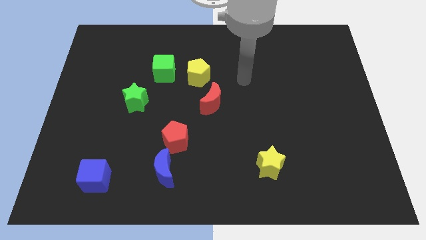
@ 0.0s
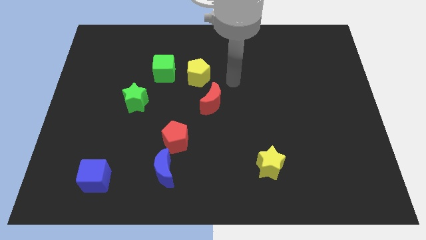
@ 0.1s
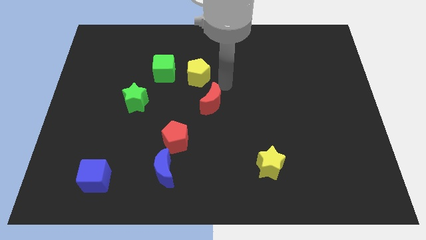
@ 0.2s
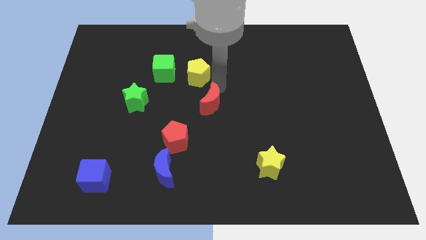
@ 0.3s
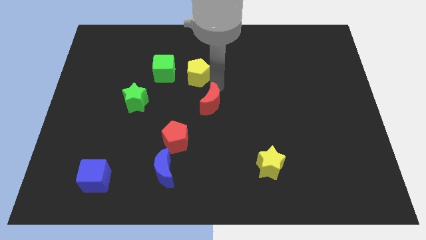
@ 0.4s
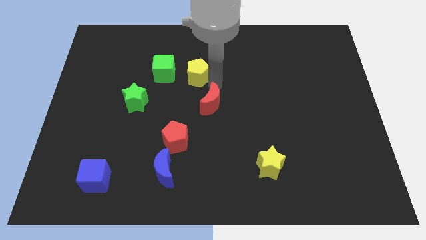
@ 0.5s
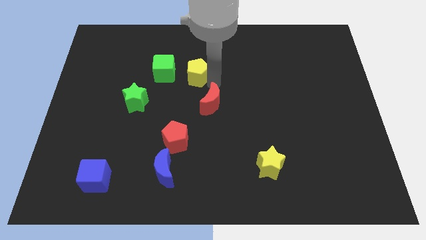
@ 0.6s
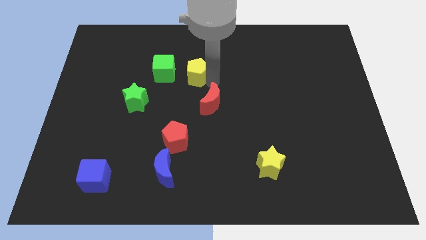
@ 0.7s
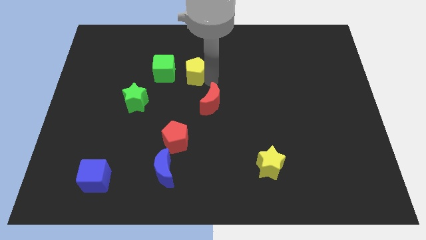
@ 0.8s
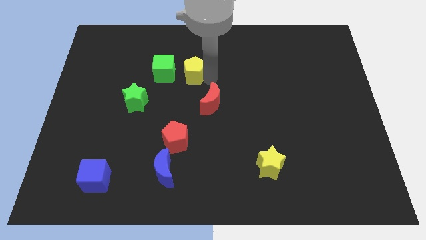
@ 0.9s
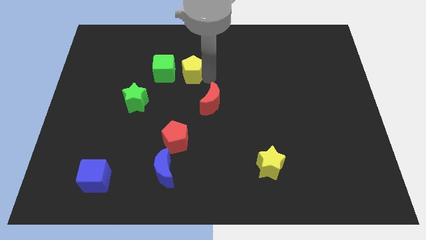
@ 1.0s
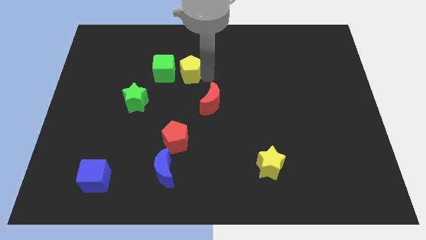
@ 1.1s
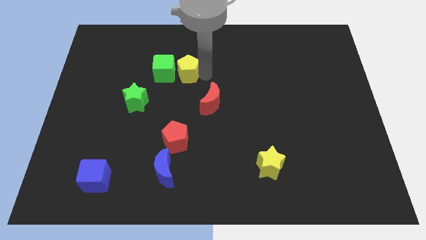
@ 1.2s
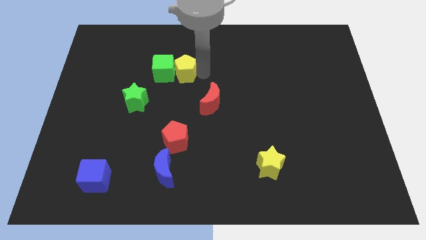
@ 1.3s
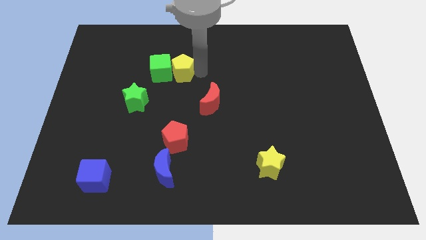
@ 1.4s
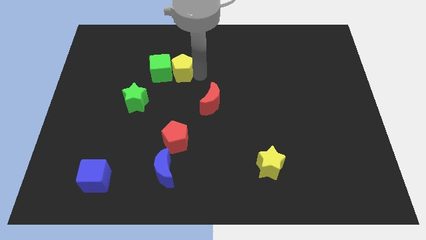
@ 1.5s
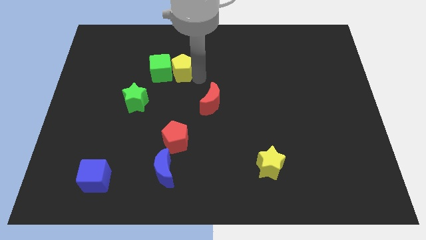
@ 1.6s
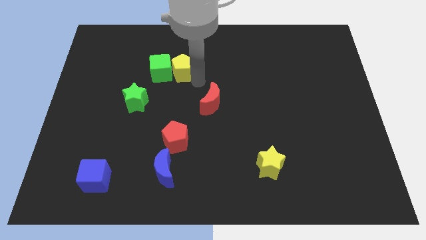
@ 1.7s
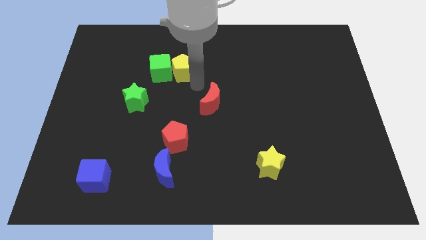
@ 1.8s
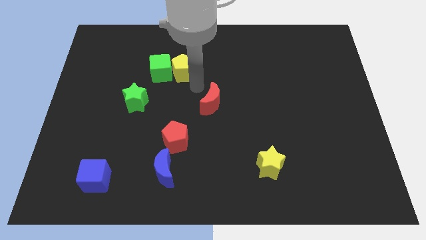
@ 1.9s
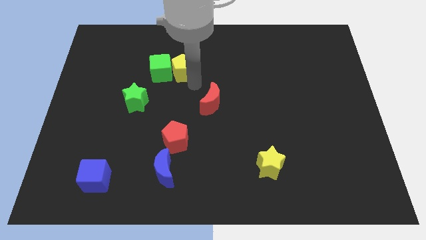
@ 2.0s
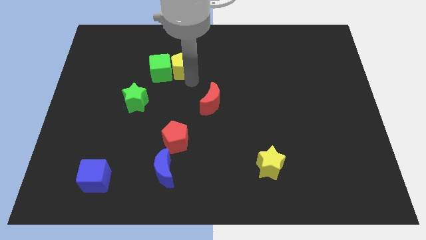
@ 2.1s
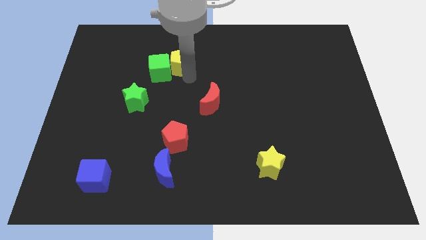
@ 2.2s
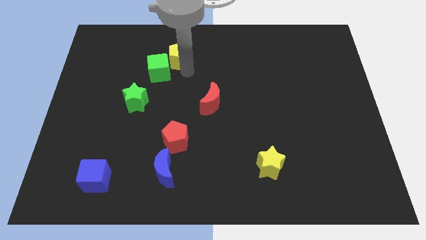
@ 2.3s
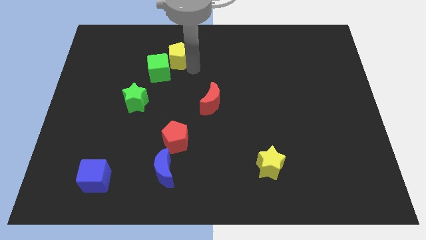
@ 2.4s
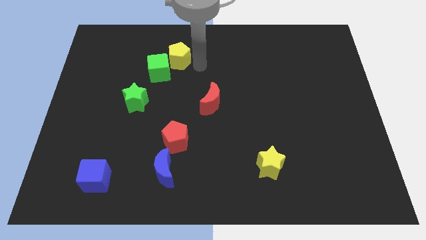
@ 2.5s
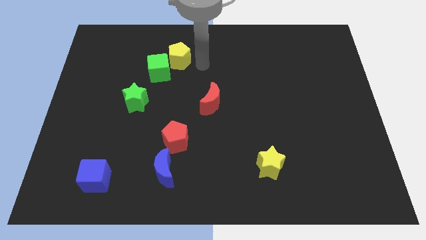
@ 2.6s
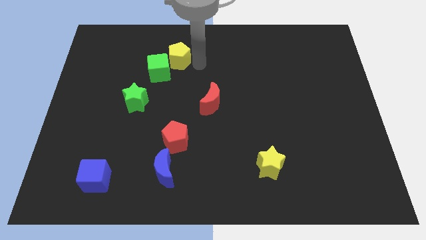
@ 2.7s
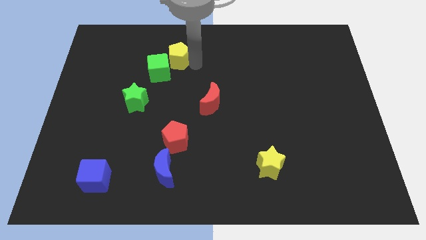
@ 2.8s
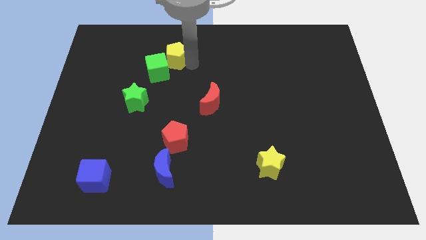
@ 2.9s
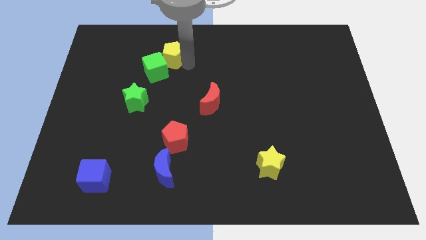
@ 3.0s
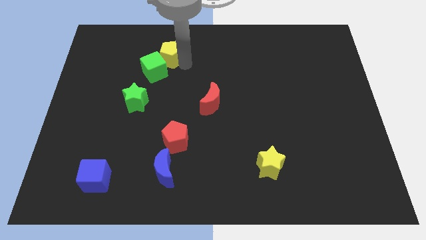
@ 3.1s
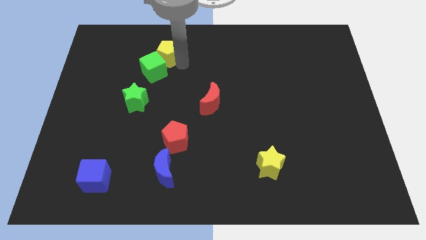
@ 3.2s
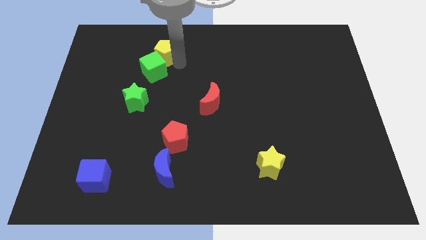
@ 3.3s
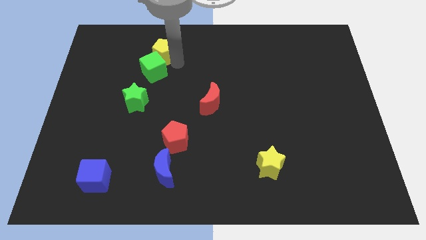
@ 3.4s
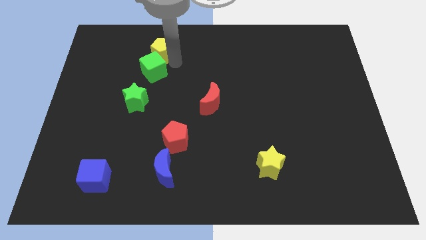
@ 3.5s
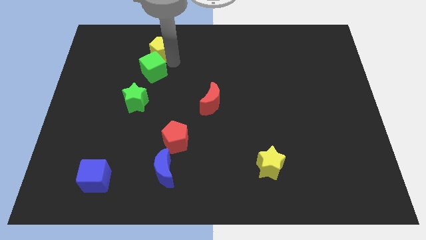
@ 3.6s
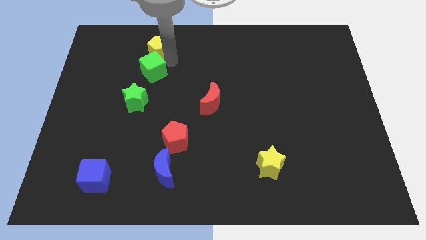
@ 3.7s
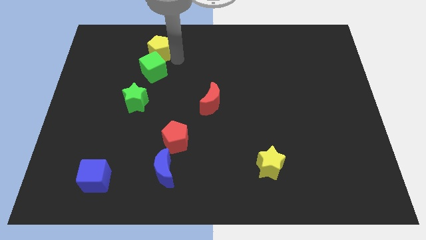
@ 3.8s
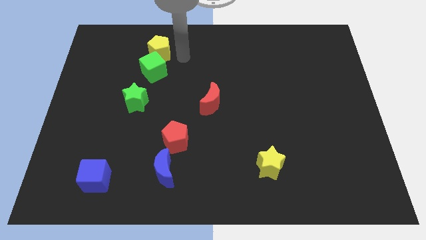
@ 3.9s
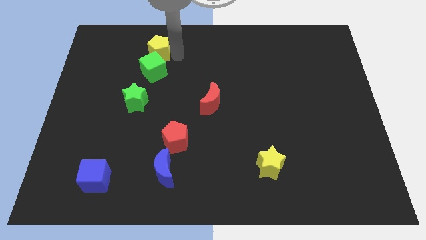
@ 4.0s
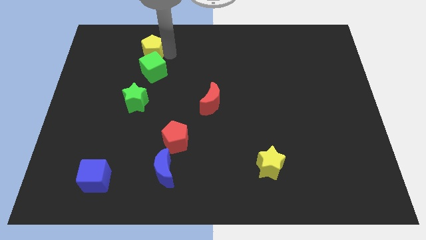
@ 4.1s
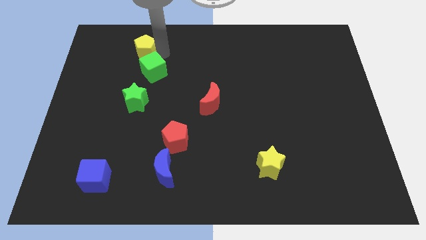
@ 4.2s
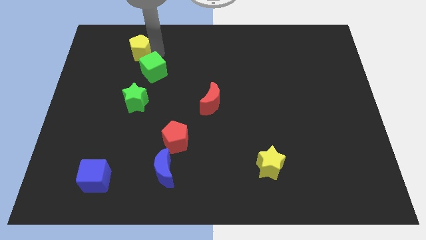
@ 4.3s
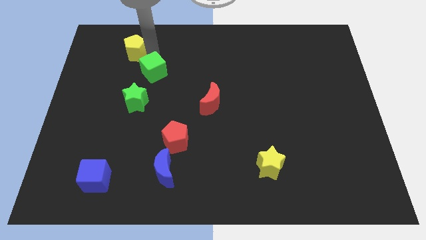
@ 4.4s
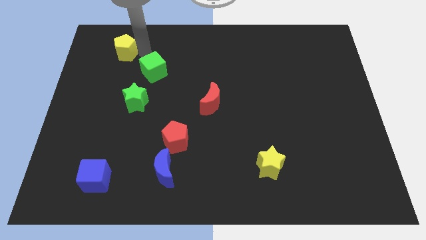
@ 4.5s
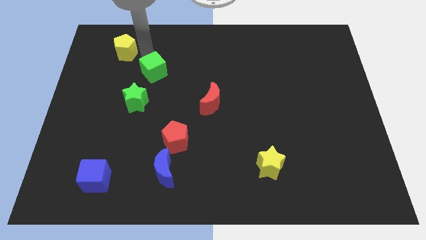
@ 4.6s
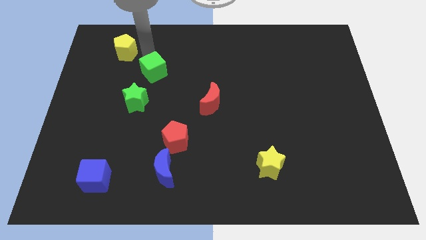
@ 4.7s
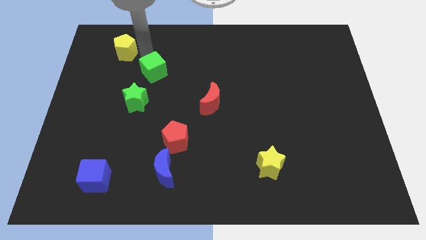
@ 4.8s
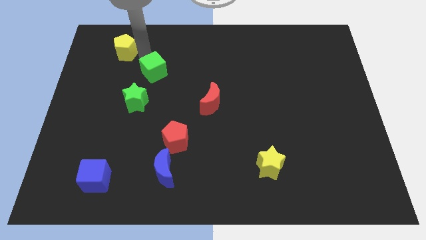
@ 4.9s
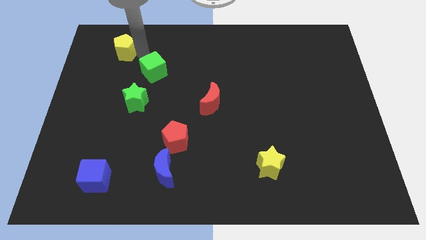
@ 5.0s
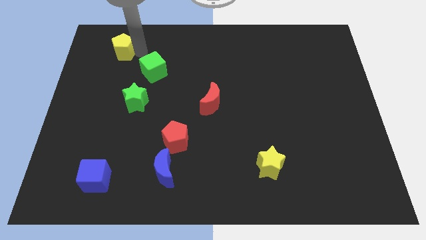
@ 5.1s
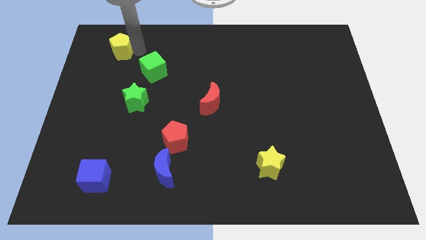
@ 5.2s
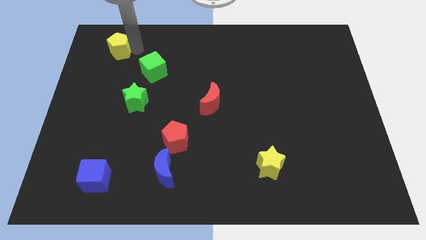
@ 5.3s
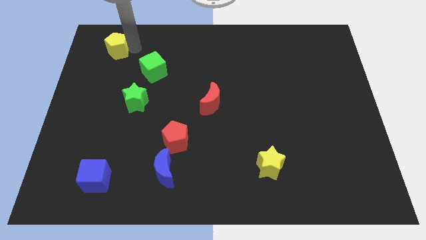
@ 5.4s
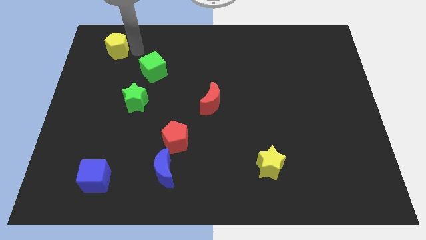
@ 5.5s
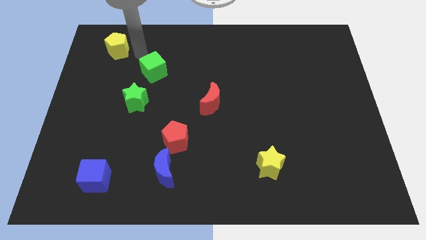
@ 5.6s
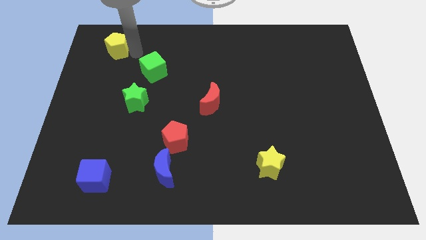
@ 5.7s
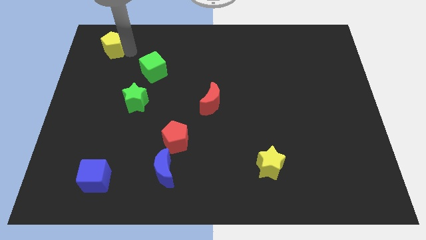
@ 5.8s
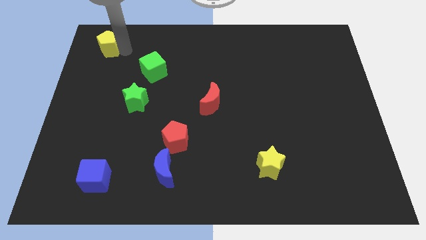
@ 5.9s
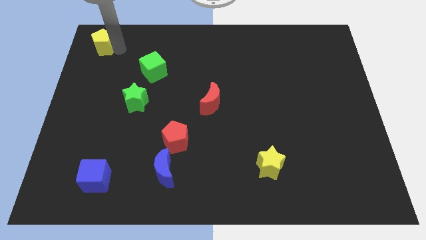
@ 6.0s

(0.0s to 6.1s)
move the yellow pentagon to the top left corner
